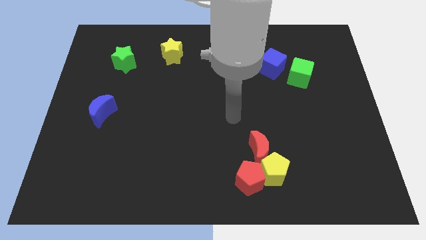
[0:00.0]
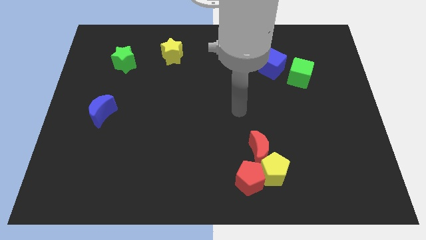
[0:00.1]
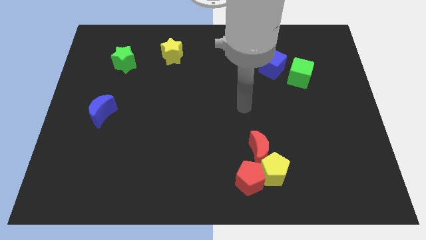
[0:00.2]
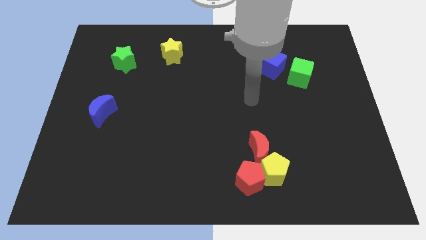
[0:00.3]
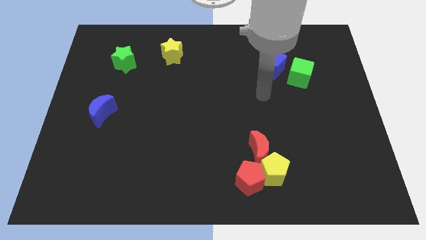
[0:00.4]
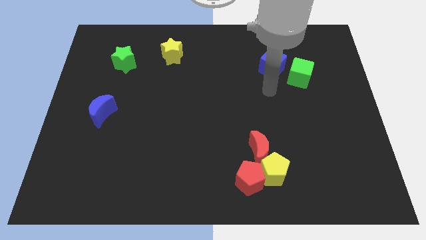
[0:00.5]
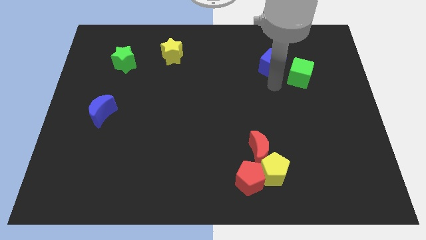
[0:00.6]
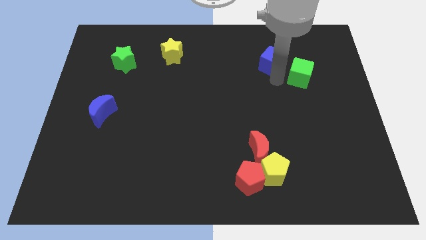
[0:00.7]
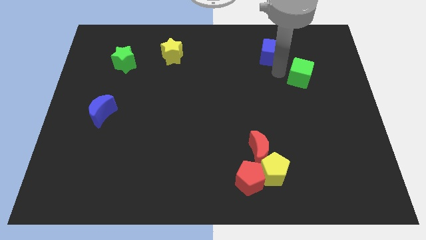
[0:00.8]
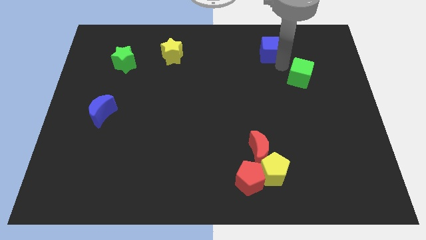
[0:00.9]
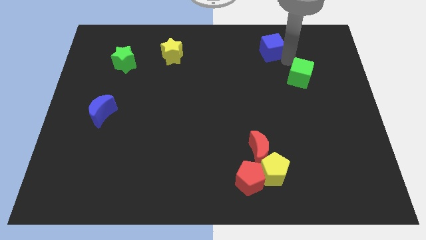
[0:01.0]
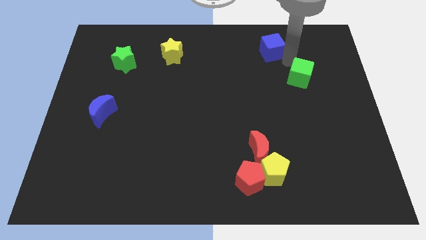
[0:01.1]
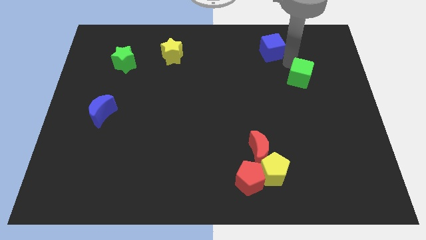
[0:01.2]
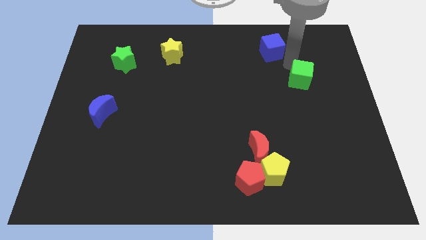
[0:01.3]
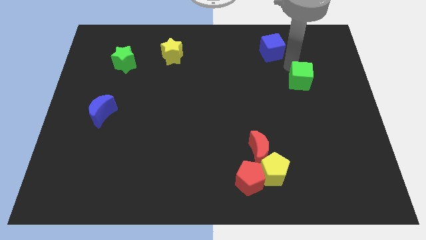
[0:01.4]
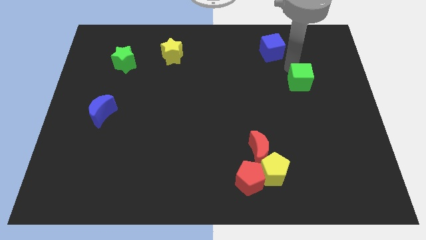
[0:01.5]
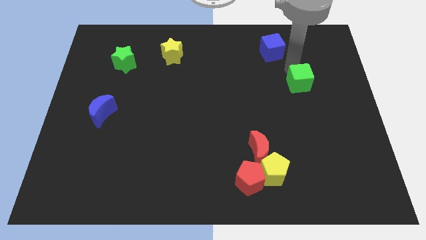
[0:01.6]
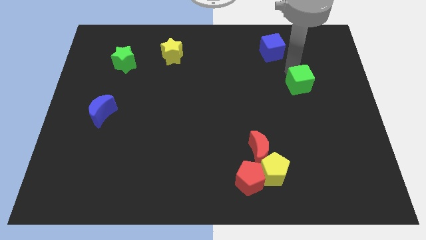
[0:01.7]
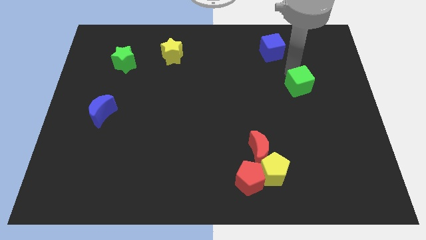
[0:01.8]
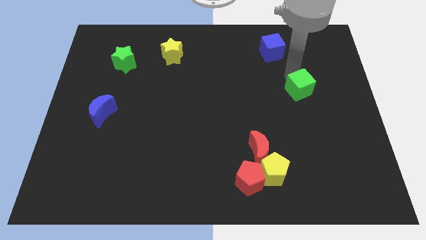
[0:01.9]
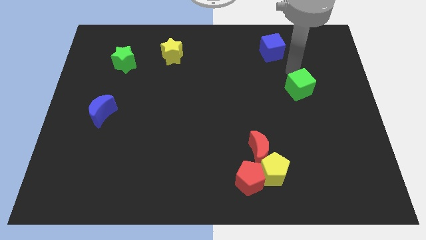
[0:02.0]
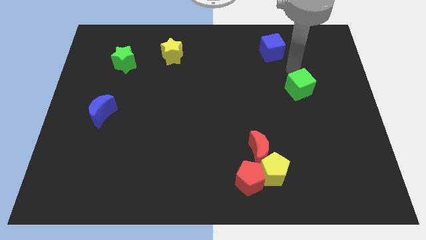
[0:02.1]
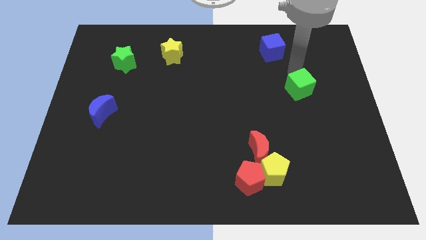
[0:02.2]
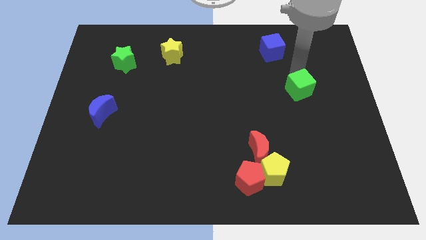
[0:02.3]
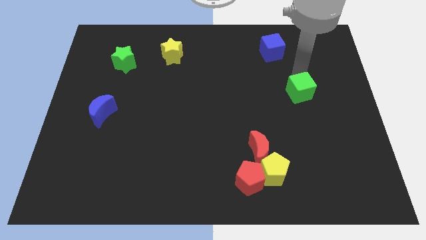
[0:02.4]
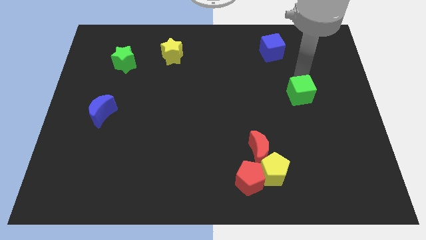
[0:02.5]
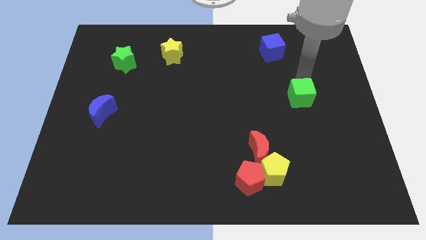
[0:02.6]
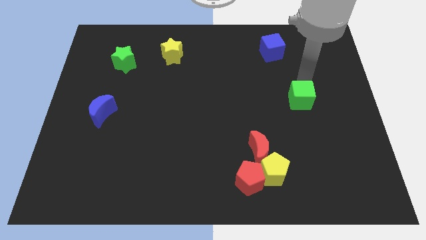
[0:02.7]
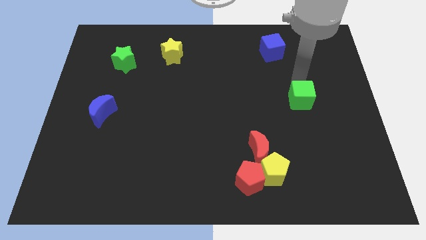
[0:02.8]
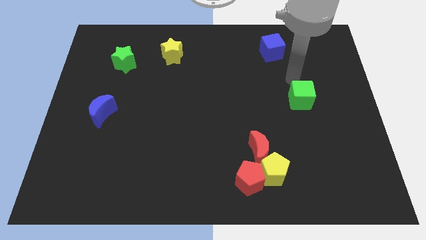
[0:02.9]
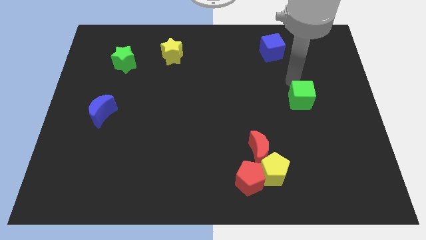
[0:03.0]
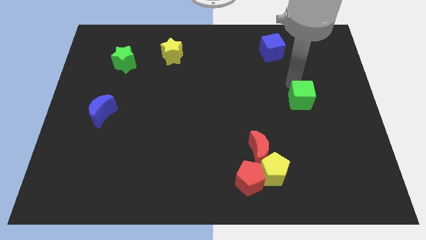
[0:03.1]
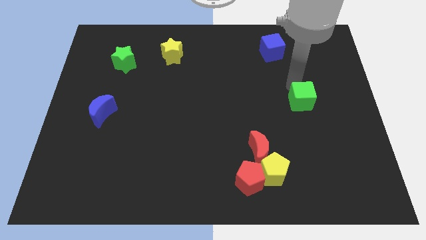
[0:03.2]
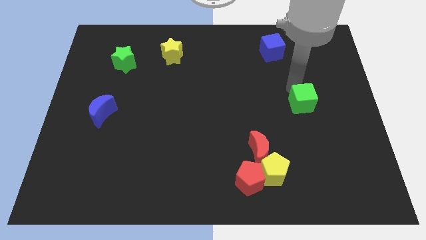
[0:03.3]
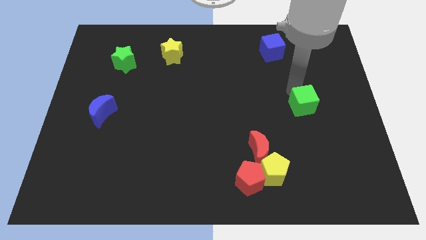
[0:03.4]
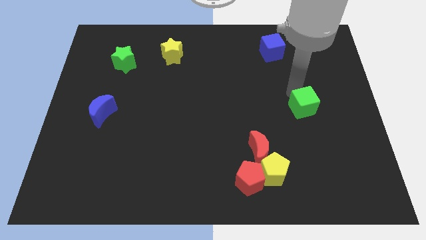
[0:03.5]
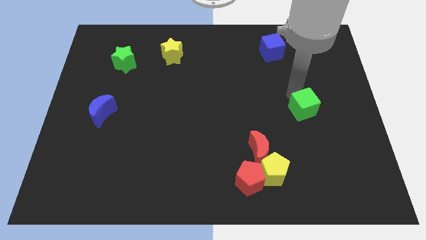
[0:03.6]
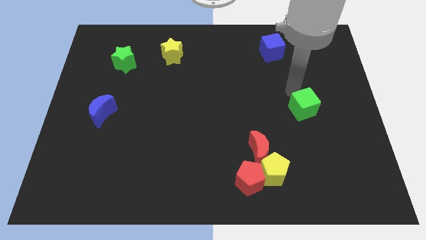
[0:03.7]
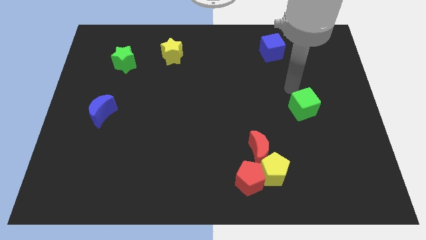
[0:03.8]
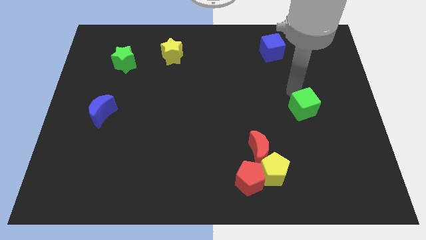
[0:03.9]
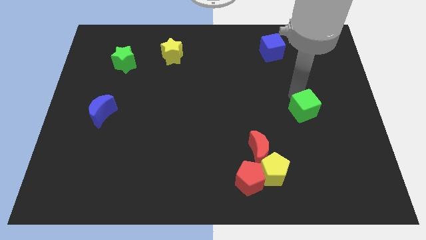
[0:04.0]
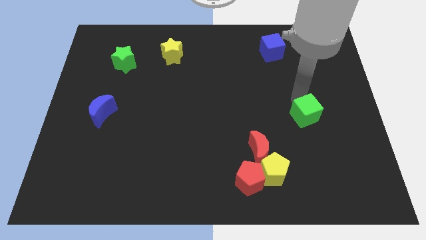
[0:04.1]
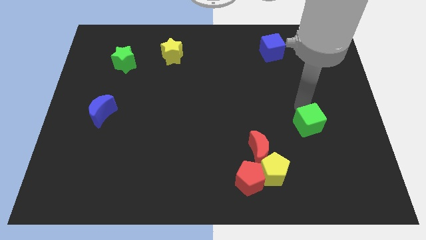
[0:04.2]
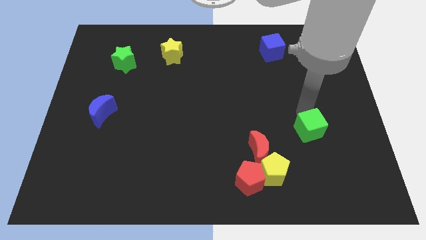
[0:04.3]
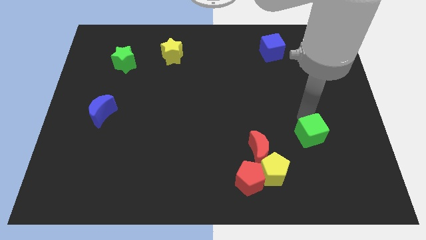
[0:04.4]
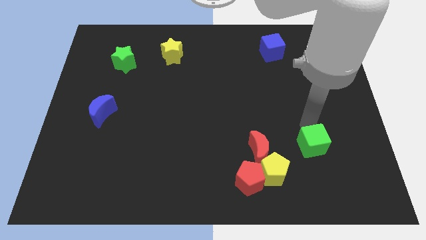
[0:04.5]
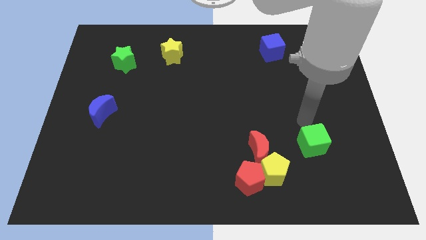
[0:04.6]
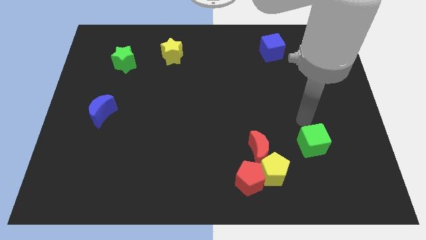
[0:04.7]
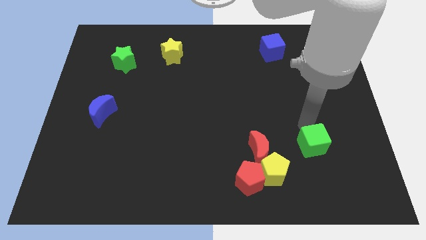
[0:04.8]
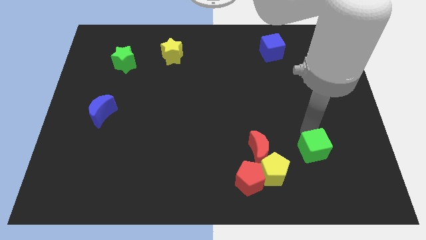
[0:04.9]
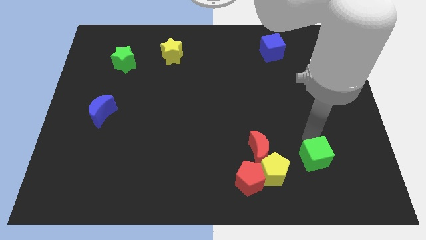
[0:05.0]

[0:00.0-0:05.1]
push the green cube to the right side of the yellow pentagon

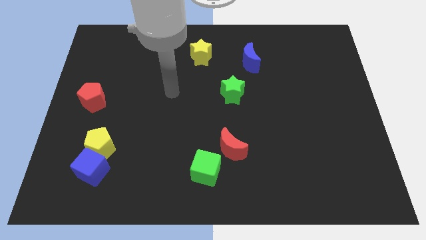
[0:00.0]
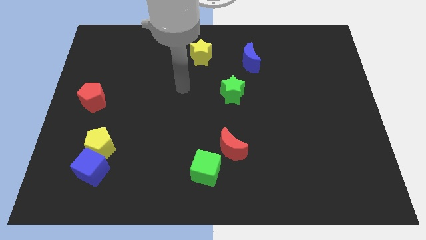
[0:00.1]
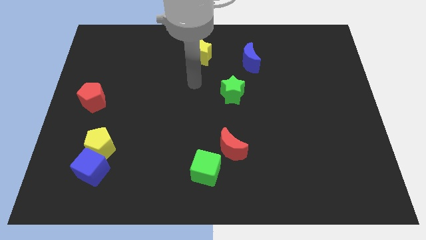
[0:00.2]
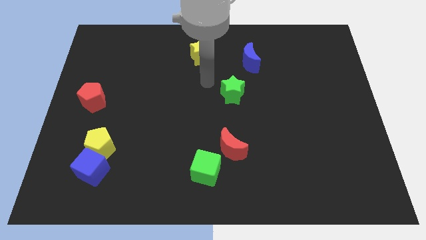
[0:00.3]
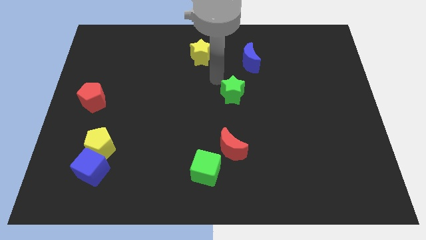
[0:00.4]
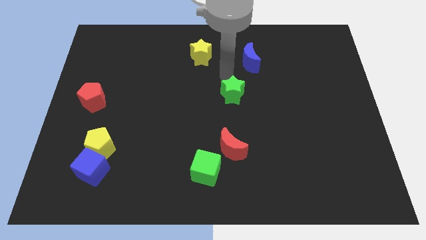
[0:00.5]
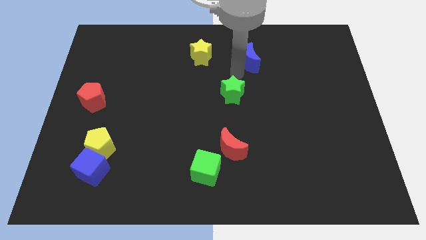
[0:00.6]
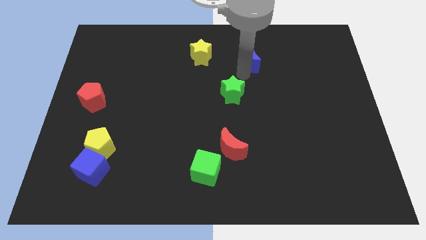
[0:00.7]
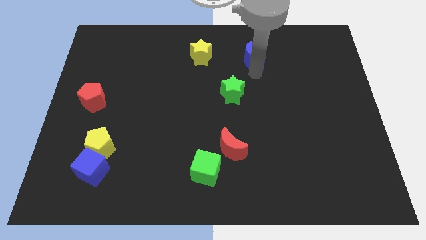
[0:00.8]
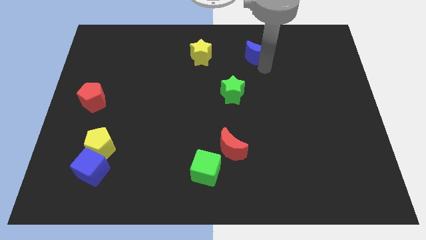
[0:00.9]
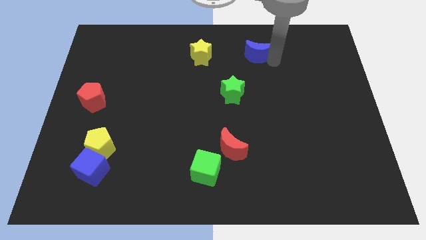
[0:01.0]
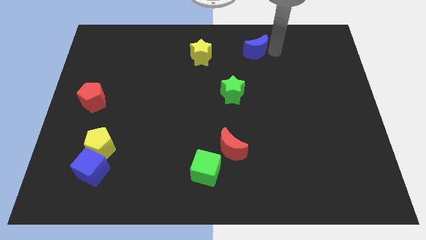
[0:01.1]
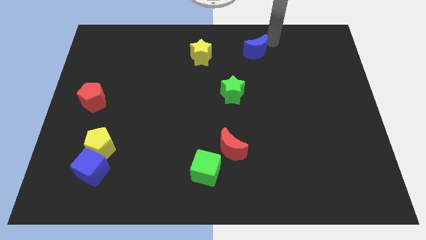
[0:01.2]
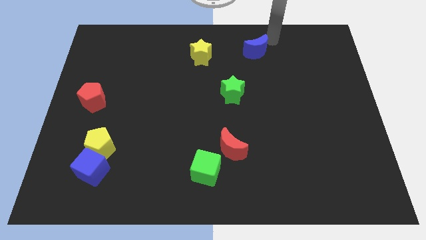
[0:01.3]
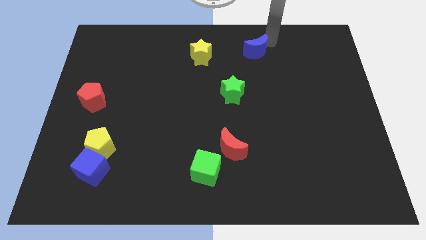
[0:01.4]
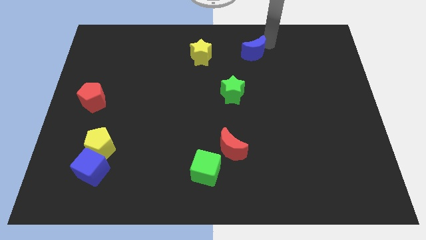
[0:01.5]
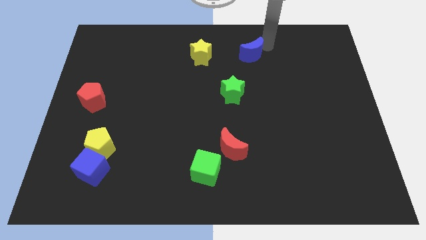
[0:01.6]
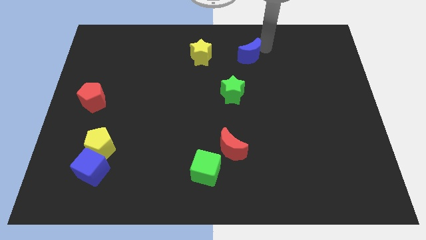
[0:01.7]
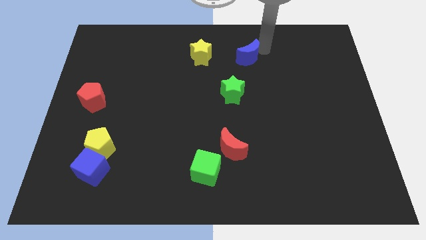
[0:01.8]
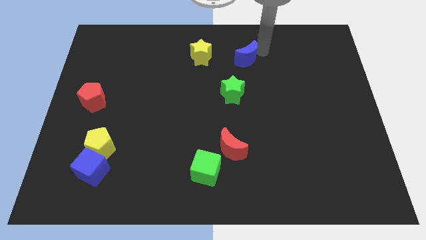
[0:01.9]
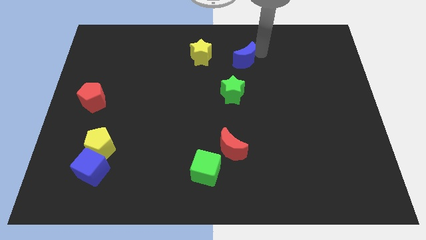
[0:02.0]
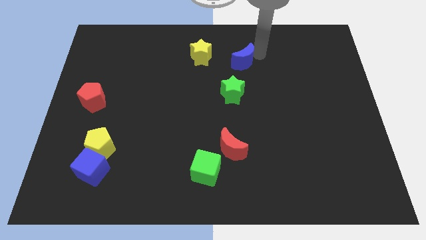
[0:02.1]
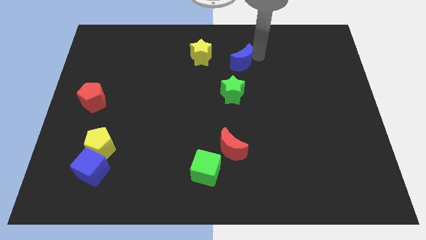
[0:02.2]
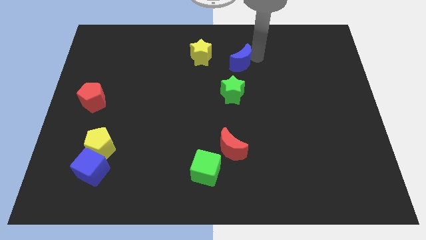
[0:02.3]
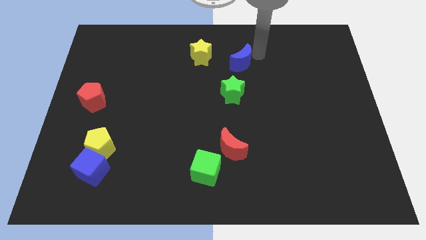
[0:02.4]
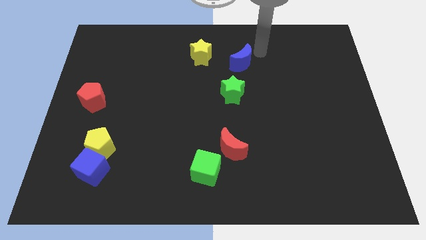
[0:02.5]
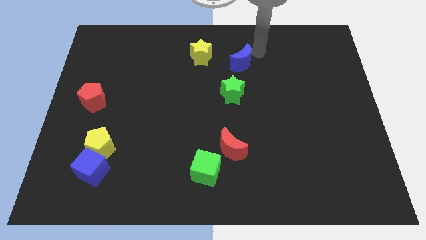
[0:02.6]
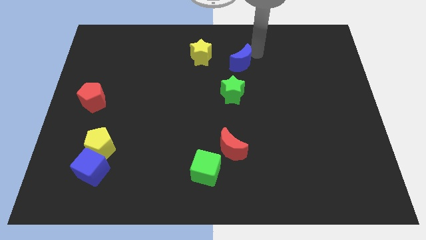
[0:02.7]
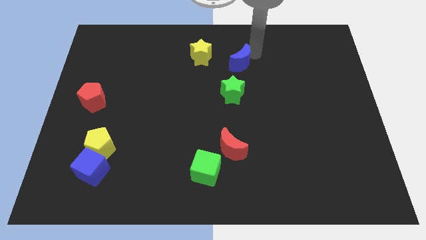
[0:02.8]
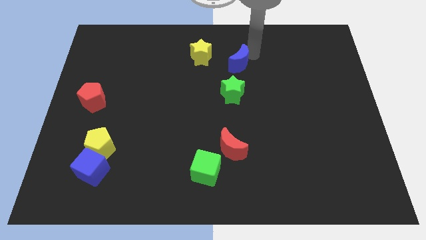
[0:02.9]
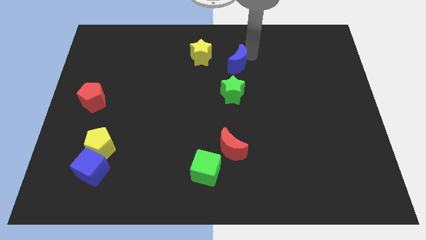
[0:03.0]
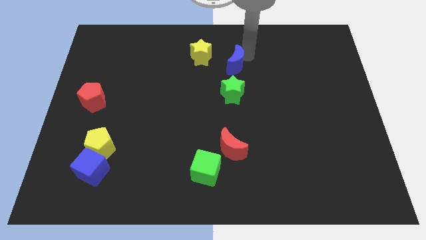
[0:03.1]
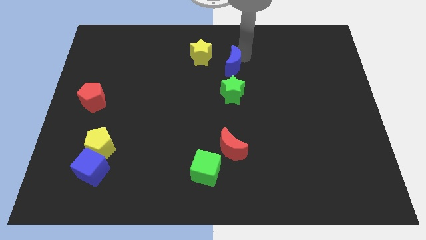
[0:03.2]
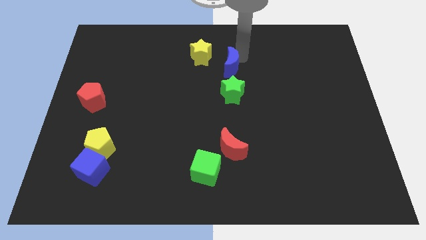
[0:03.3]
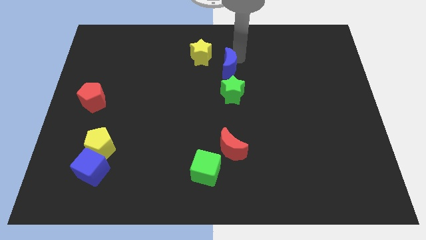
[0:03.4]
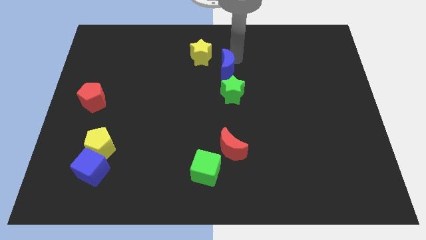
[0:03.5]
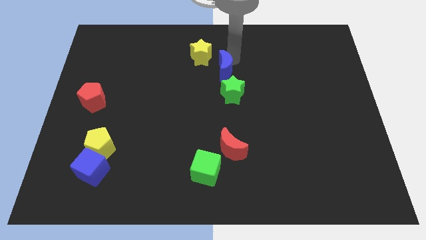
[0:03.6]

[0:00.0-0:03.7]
push the blue moon to the top left side of the green star
